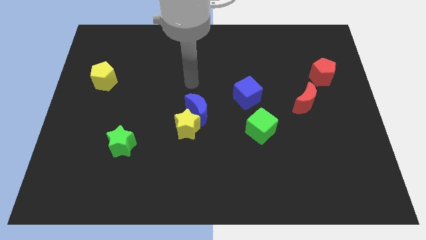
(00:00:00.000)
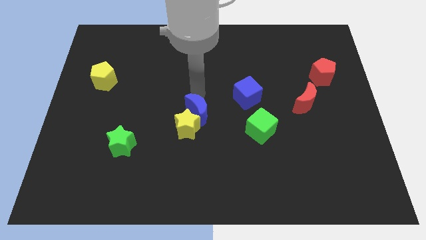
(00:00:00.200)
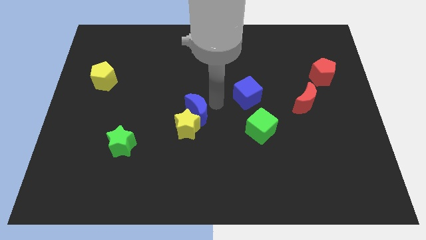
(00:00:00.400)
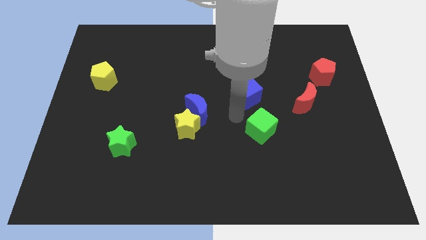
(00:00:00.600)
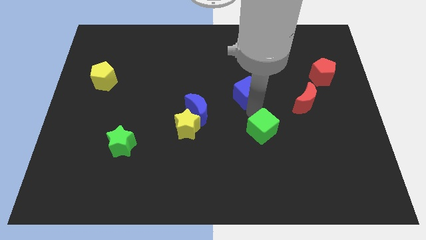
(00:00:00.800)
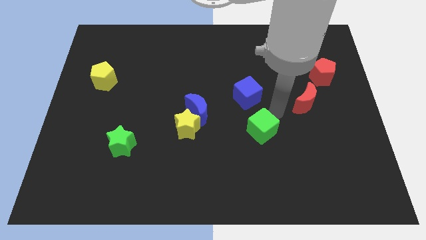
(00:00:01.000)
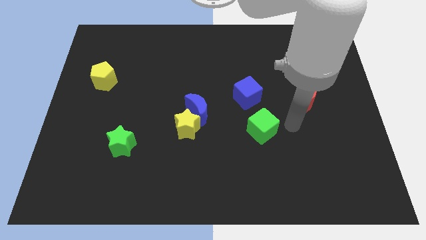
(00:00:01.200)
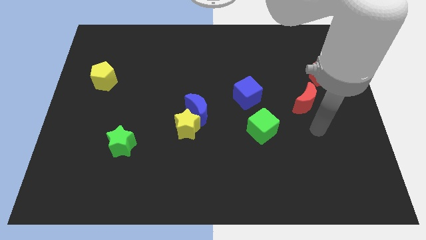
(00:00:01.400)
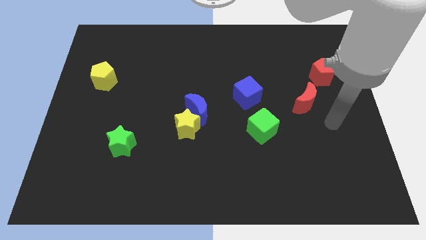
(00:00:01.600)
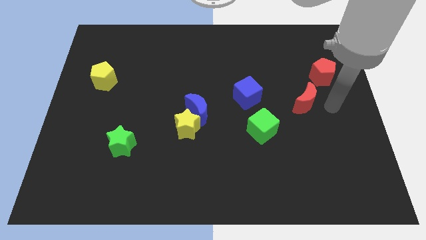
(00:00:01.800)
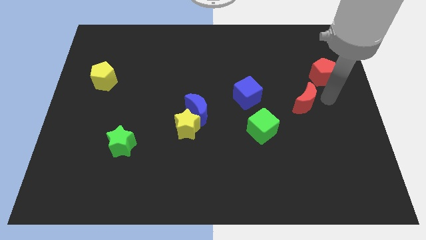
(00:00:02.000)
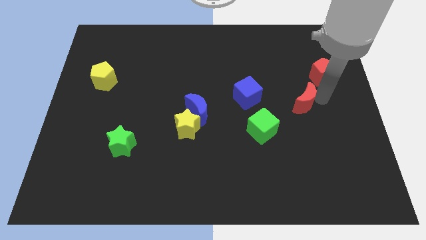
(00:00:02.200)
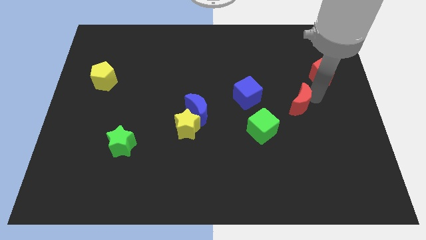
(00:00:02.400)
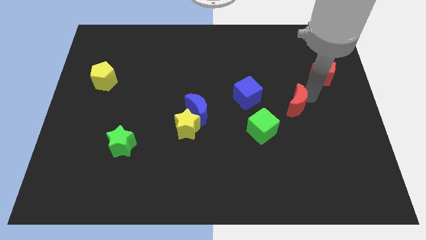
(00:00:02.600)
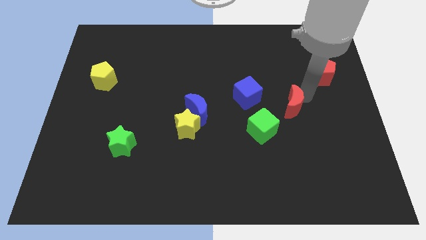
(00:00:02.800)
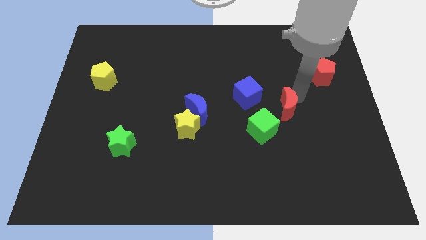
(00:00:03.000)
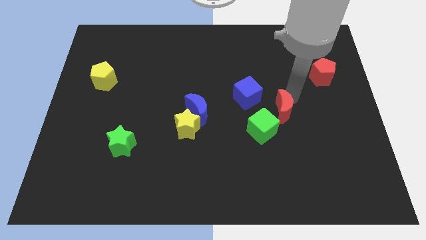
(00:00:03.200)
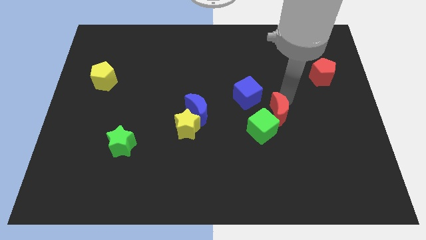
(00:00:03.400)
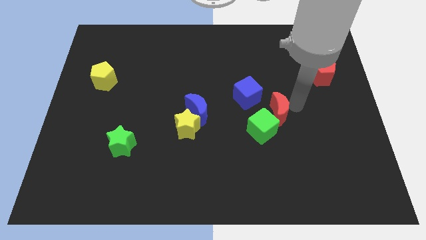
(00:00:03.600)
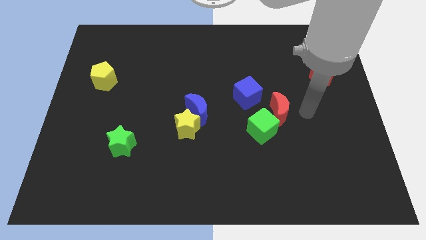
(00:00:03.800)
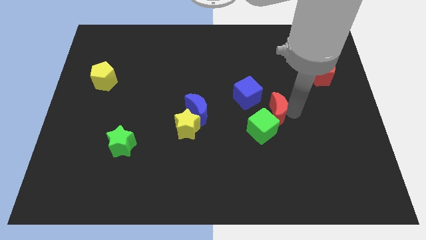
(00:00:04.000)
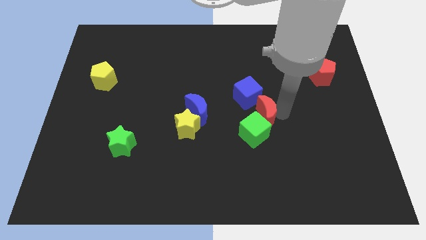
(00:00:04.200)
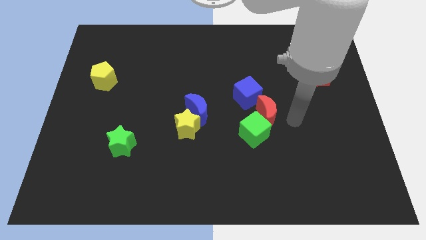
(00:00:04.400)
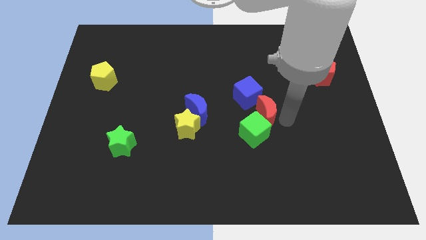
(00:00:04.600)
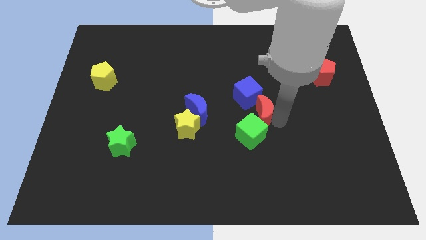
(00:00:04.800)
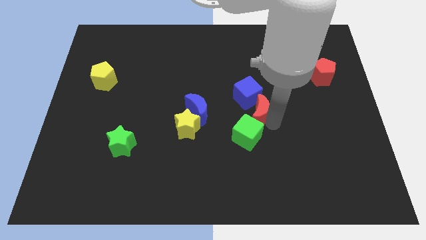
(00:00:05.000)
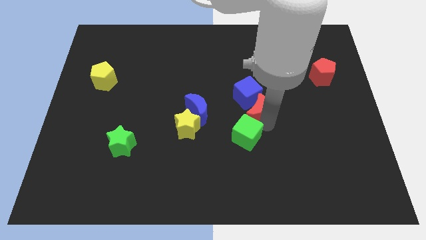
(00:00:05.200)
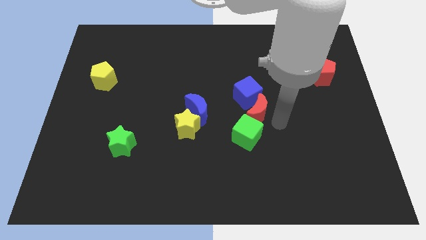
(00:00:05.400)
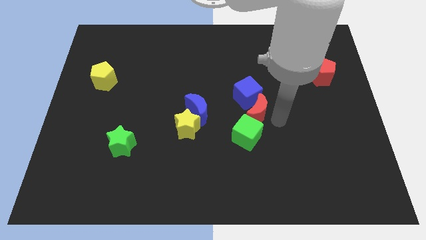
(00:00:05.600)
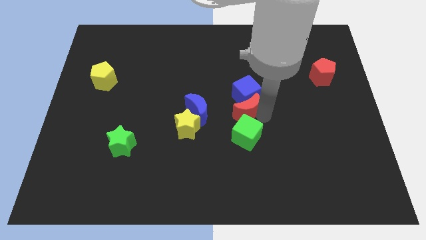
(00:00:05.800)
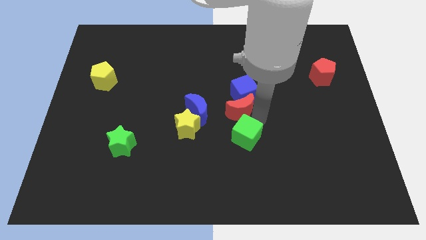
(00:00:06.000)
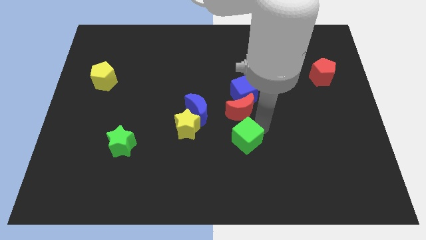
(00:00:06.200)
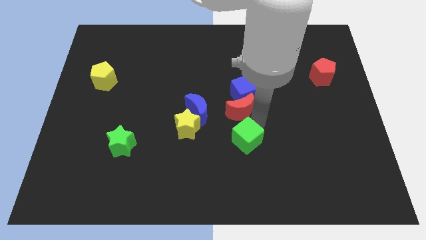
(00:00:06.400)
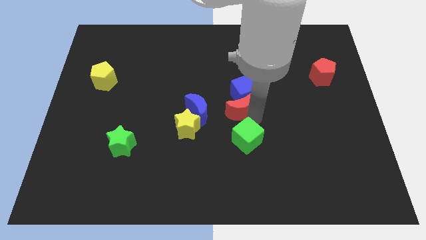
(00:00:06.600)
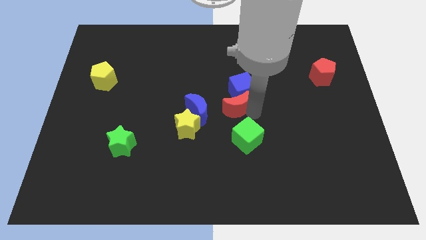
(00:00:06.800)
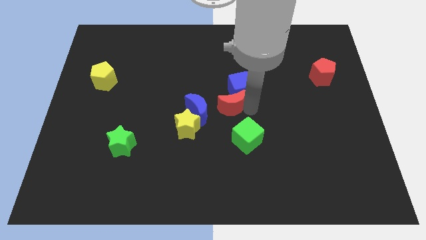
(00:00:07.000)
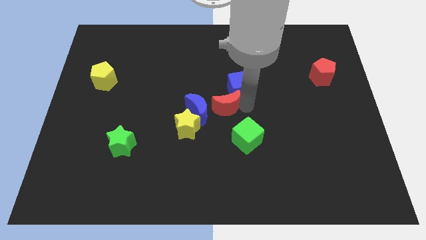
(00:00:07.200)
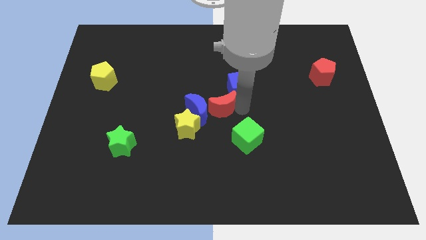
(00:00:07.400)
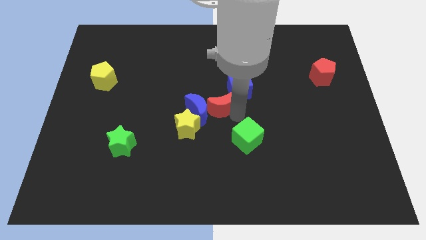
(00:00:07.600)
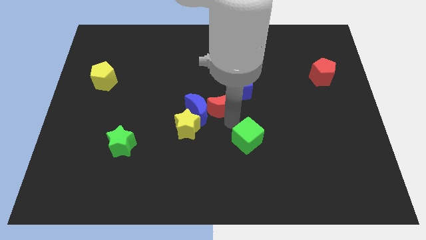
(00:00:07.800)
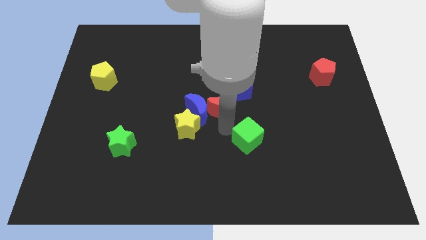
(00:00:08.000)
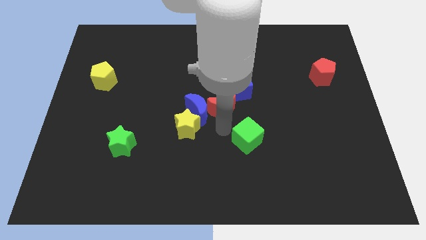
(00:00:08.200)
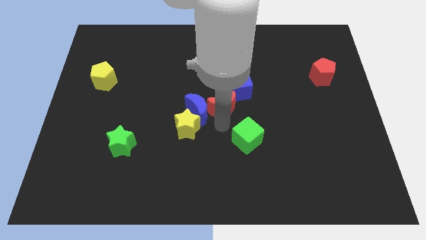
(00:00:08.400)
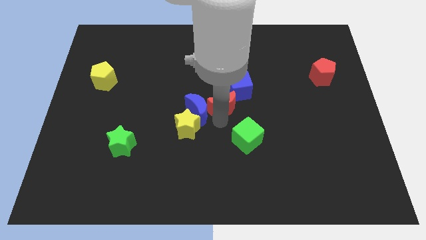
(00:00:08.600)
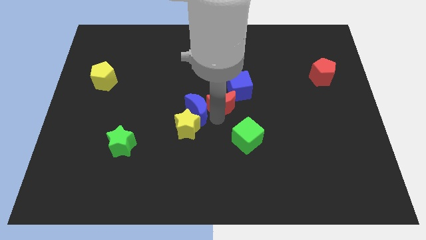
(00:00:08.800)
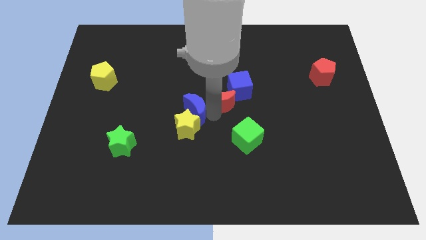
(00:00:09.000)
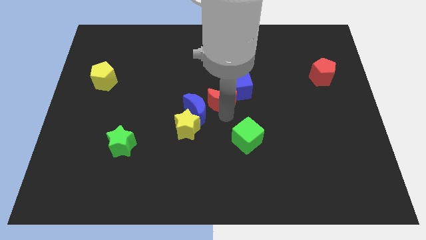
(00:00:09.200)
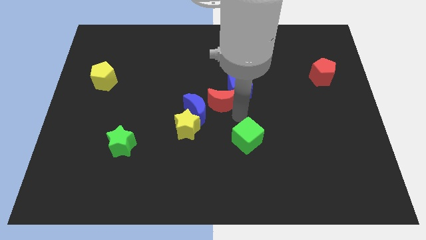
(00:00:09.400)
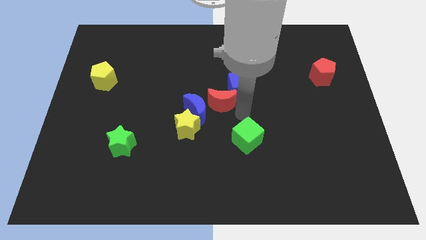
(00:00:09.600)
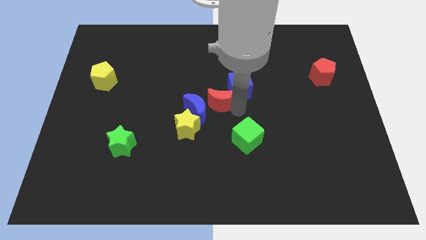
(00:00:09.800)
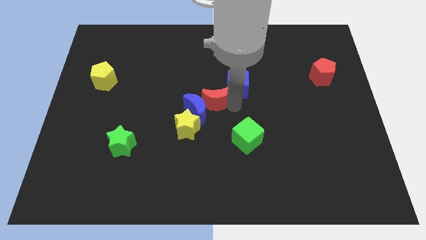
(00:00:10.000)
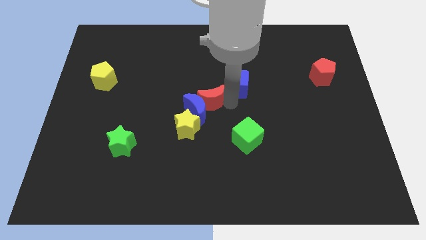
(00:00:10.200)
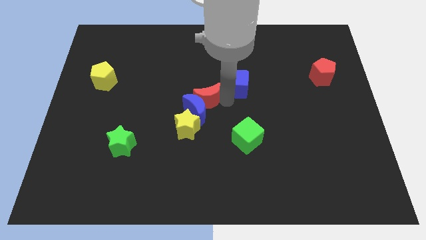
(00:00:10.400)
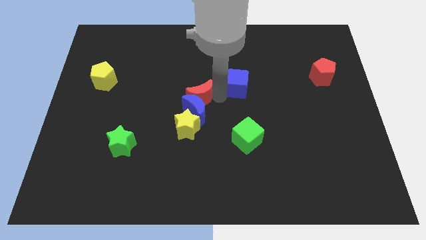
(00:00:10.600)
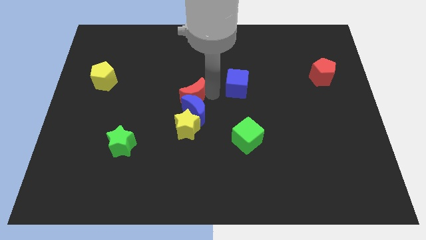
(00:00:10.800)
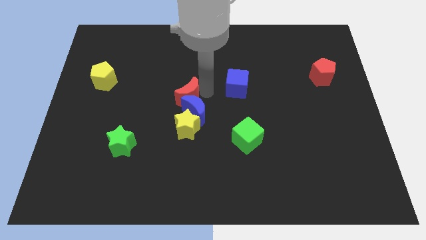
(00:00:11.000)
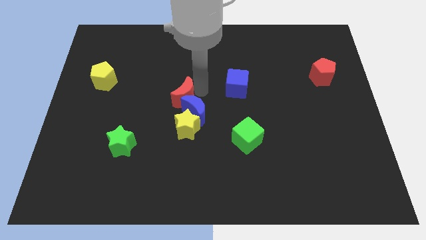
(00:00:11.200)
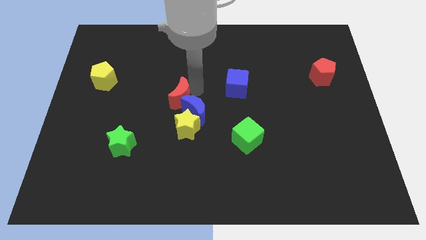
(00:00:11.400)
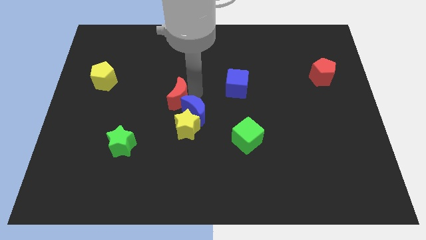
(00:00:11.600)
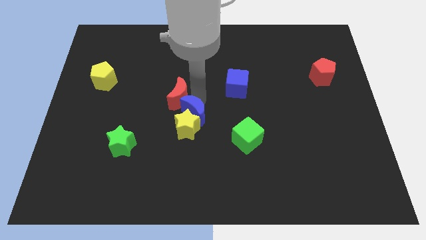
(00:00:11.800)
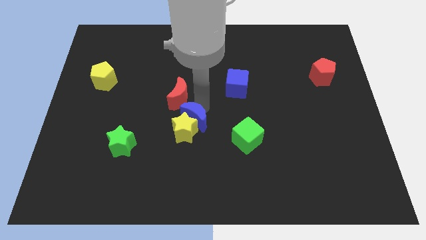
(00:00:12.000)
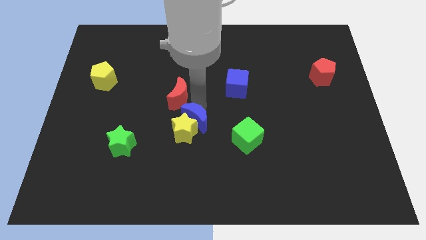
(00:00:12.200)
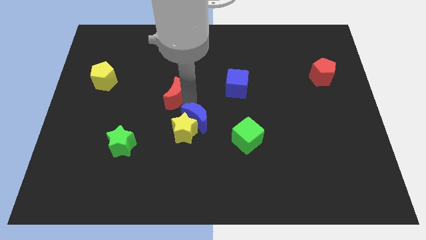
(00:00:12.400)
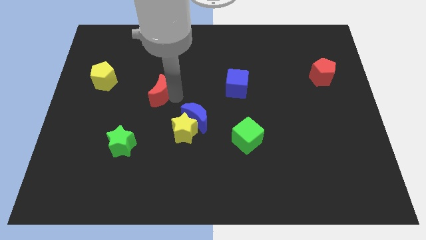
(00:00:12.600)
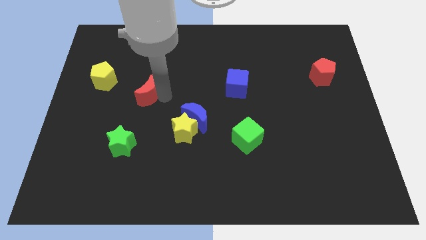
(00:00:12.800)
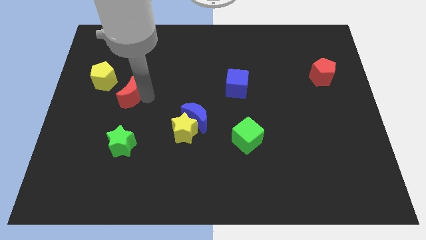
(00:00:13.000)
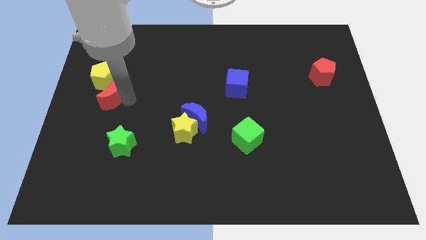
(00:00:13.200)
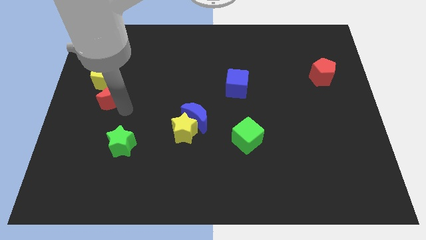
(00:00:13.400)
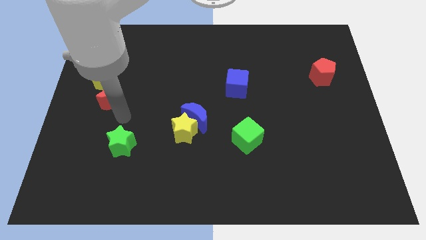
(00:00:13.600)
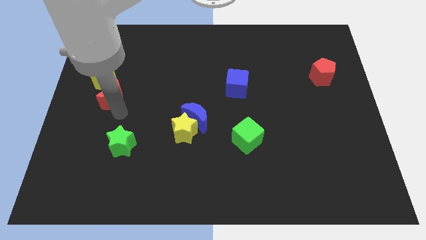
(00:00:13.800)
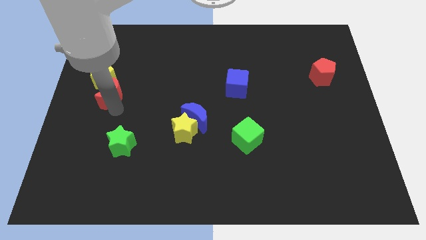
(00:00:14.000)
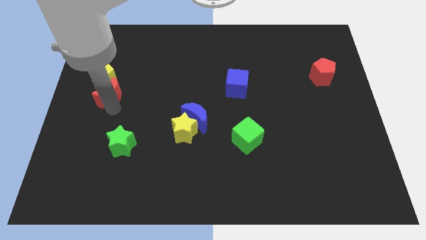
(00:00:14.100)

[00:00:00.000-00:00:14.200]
put the red moon towards the yellow pentagon
